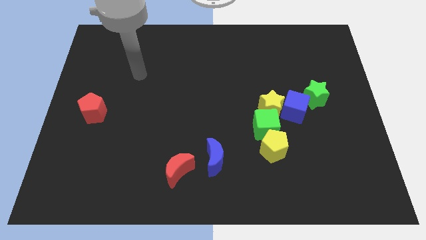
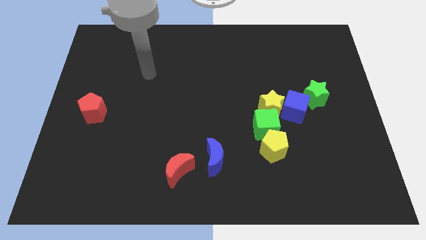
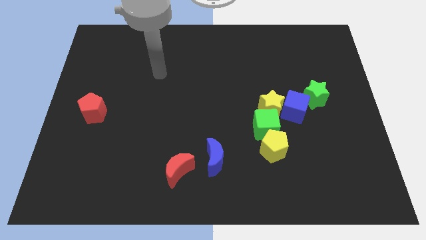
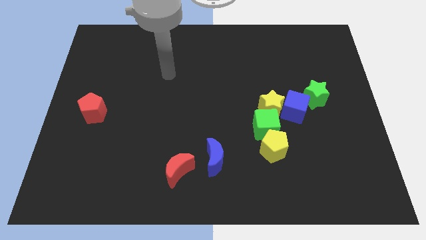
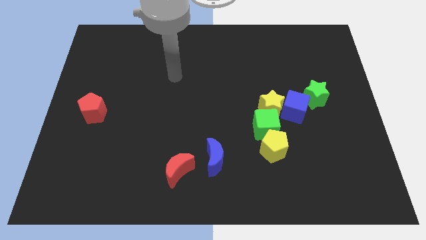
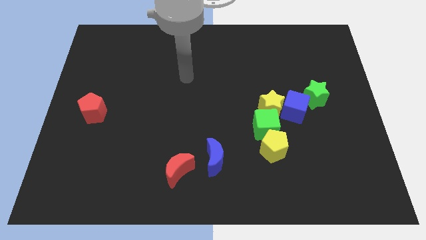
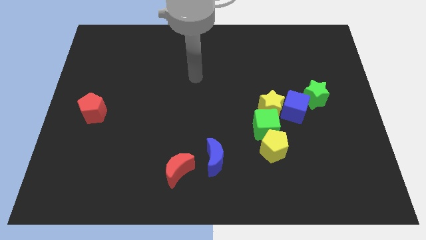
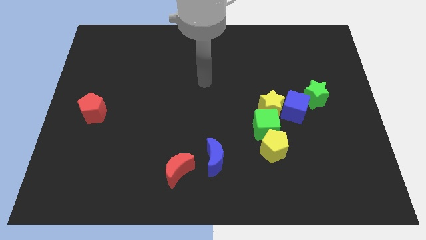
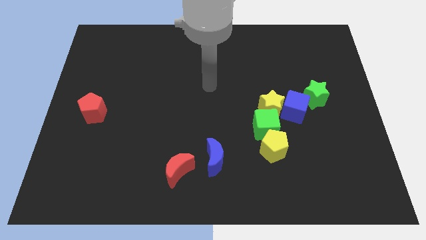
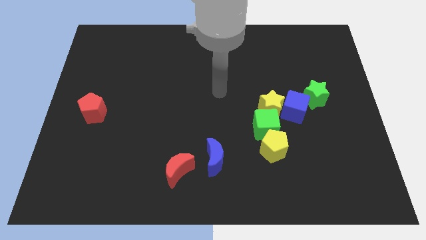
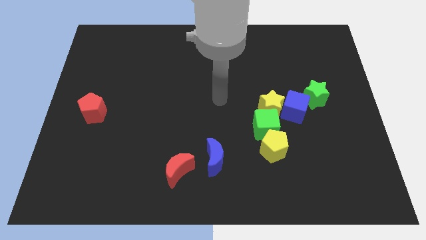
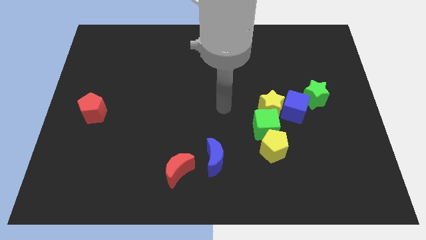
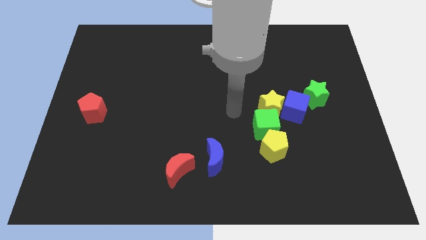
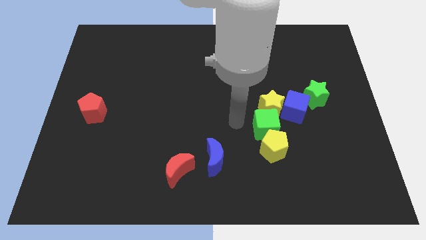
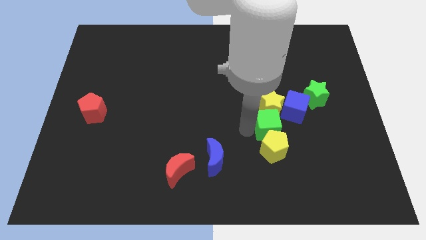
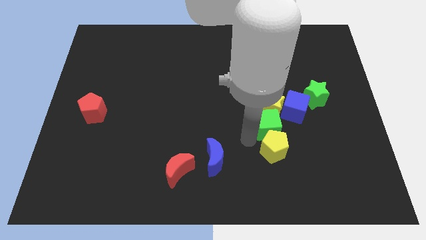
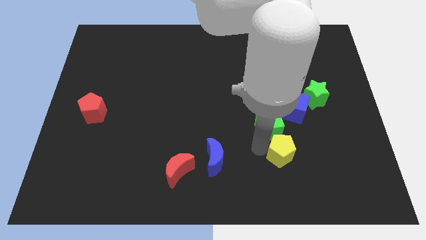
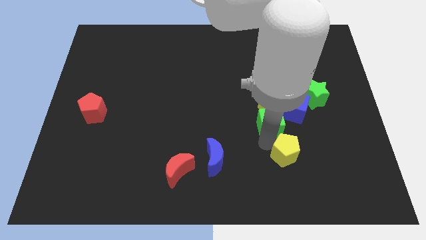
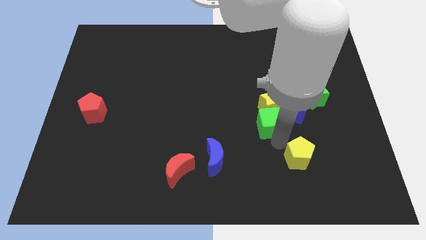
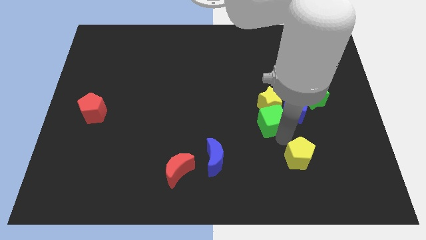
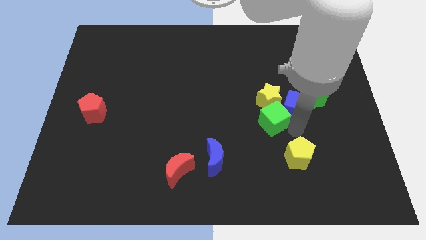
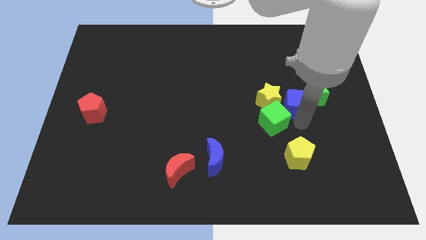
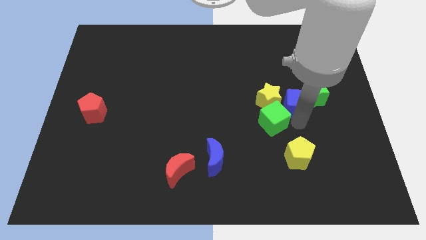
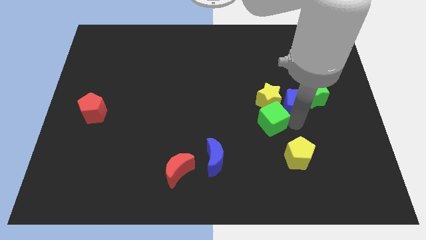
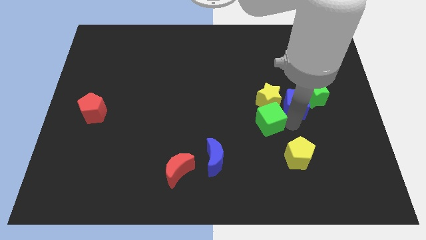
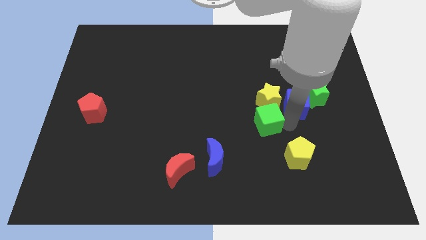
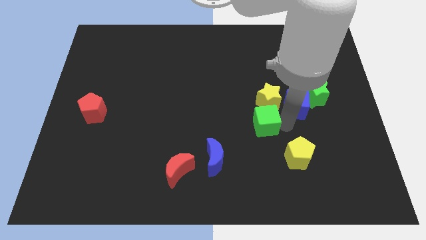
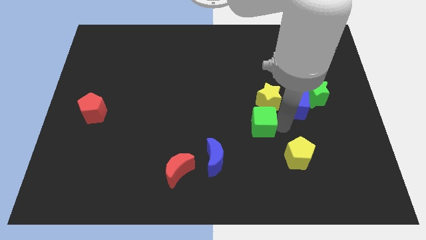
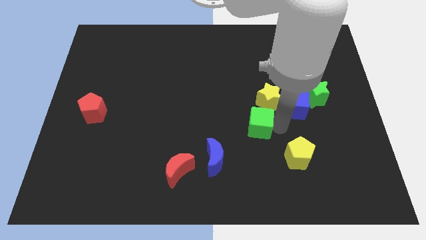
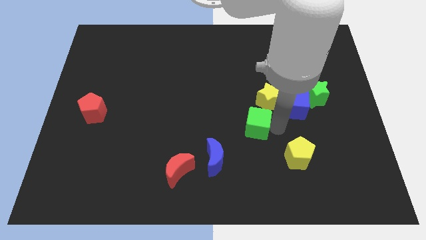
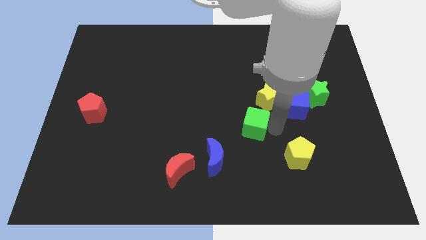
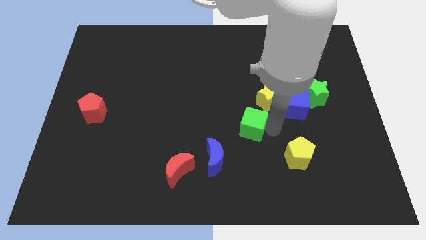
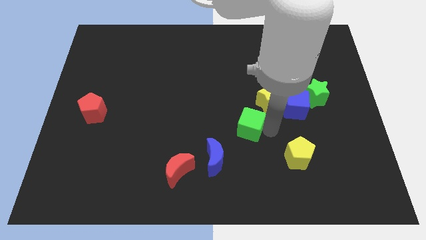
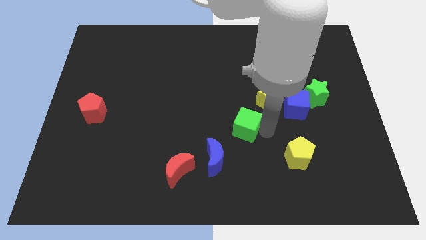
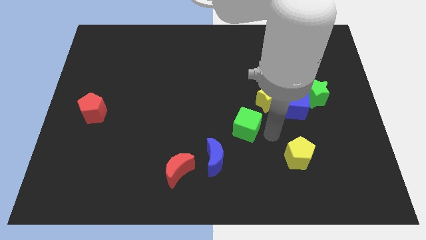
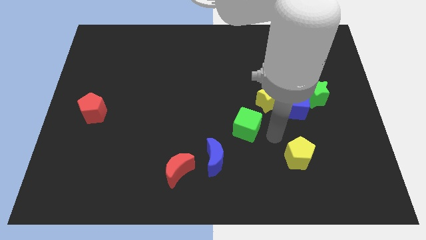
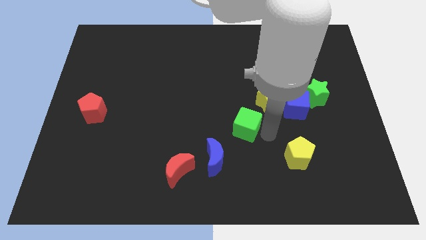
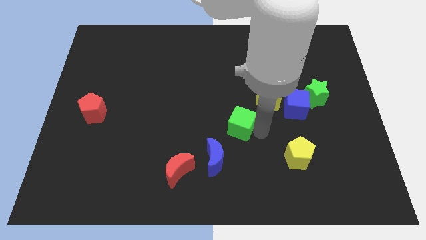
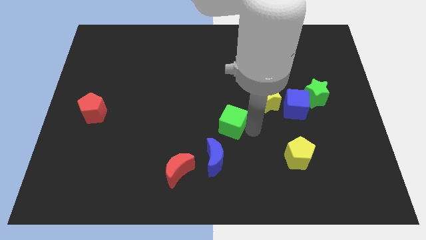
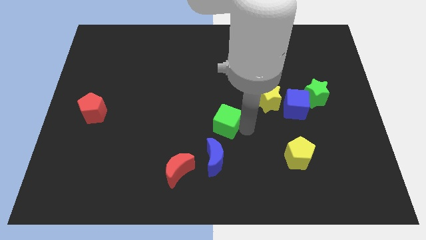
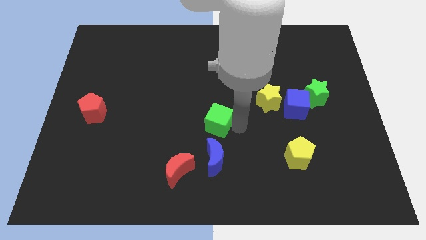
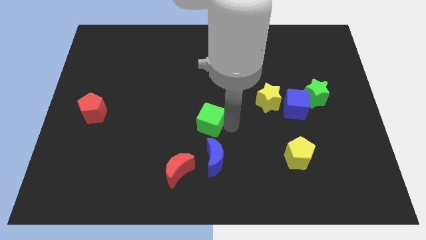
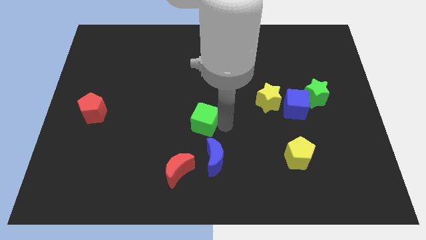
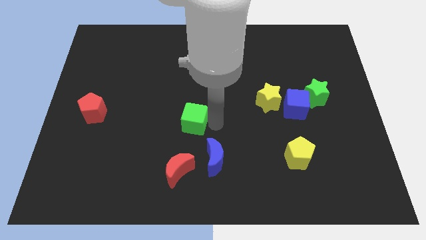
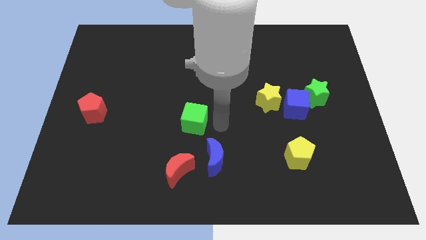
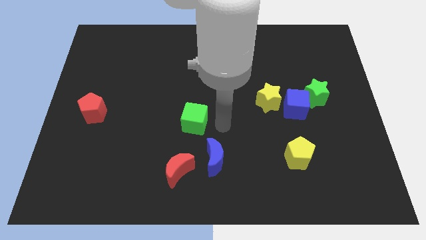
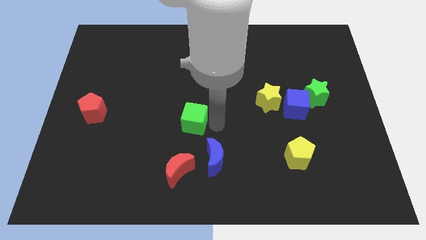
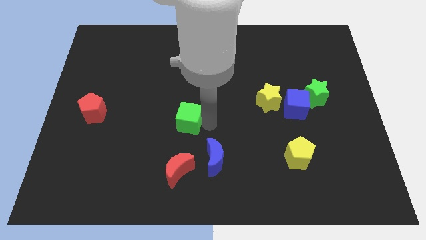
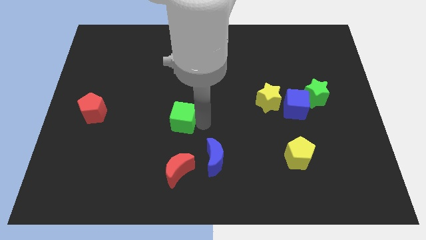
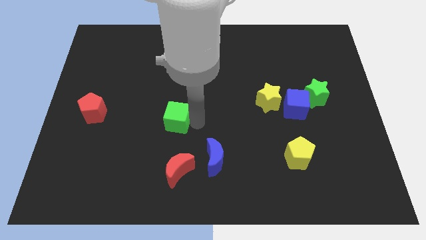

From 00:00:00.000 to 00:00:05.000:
slide the green cube to the left

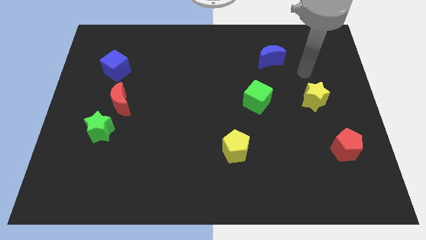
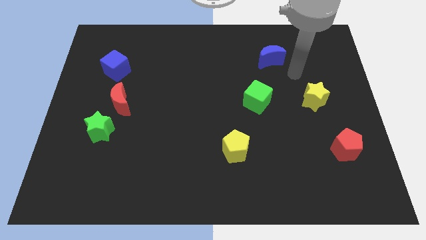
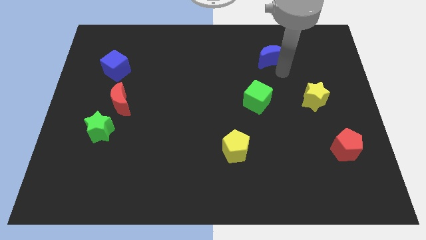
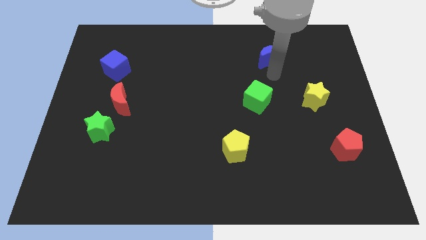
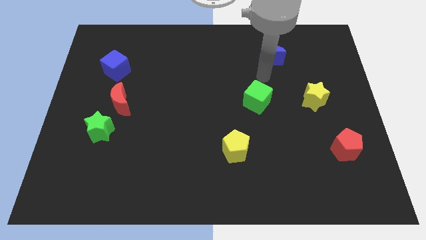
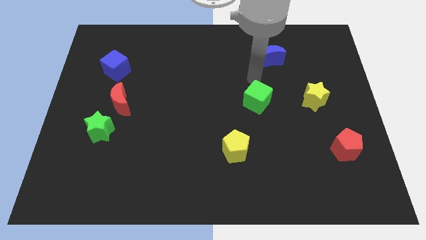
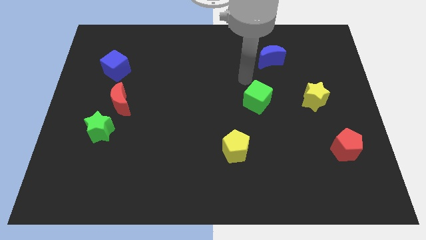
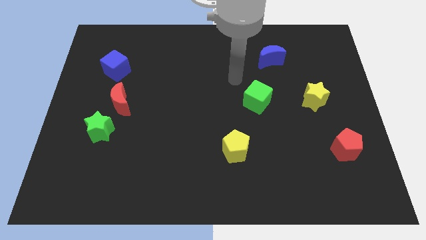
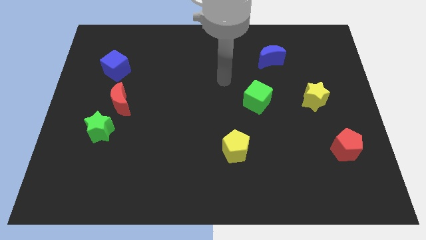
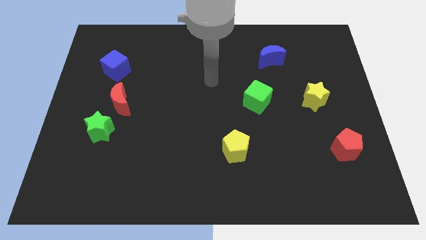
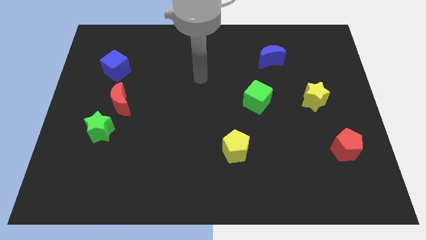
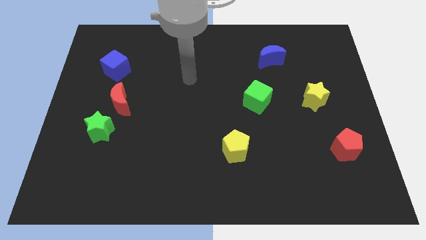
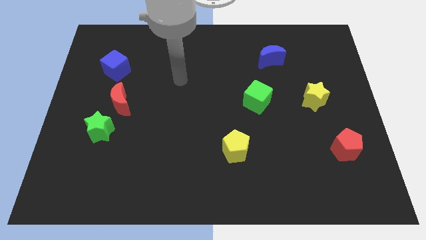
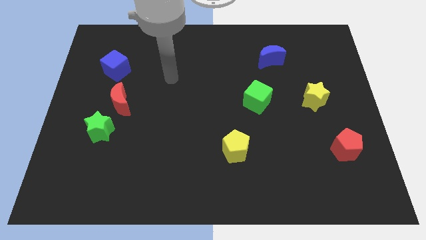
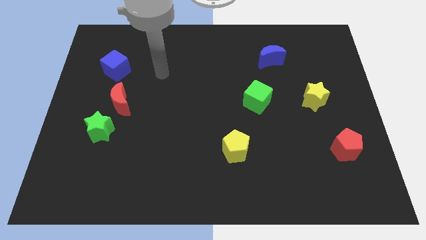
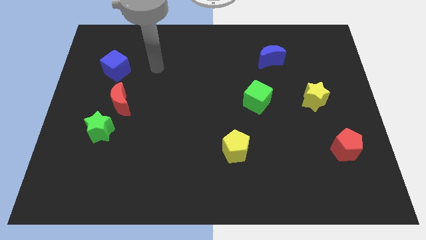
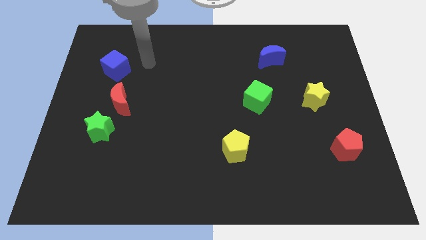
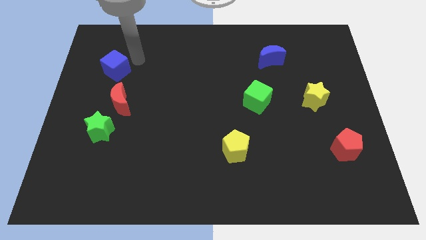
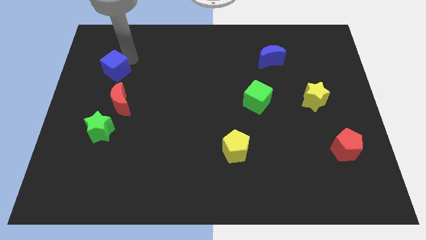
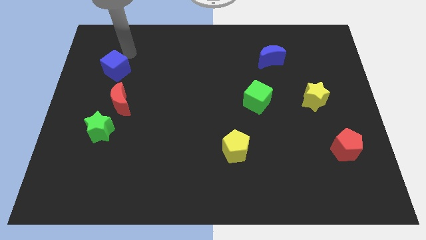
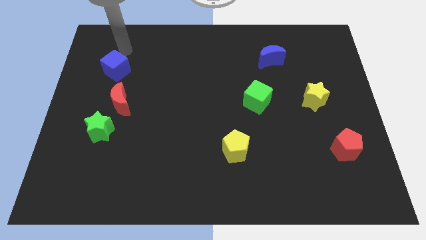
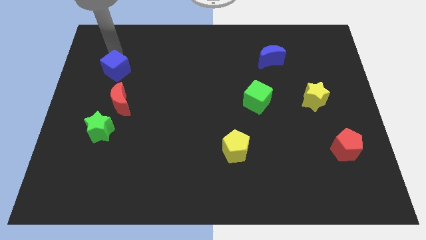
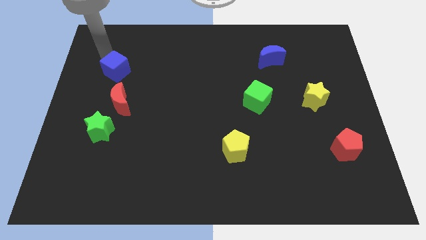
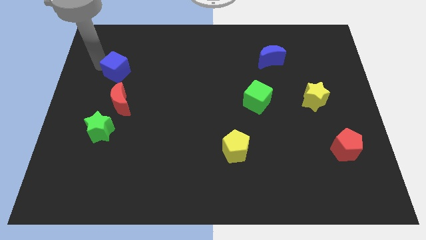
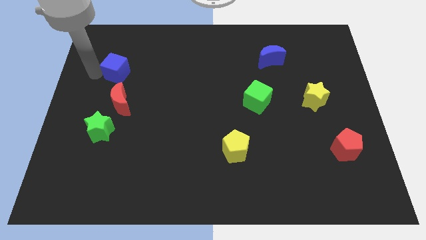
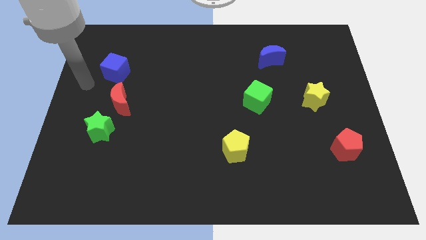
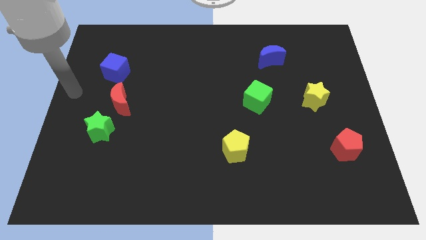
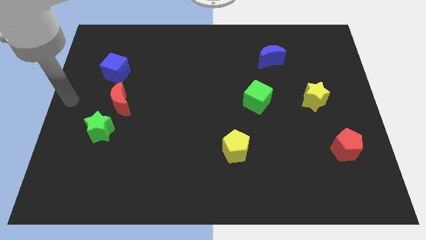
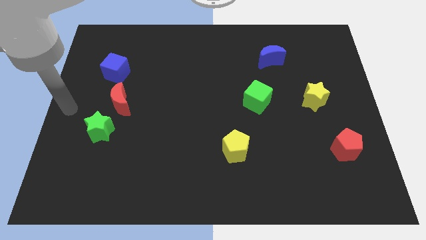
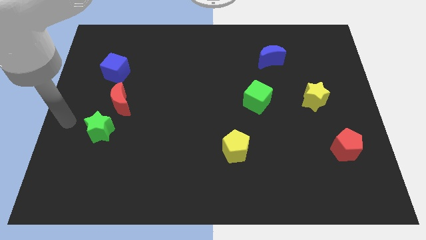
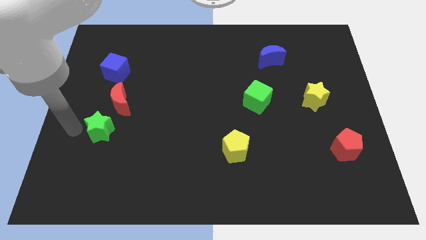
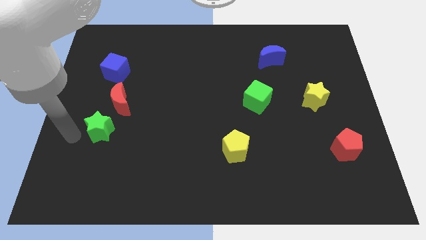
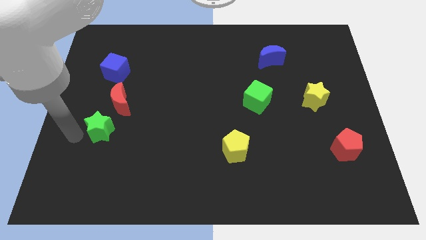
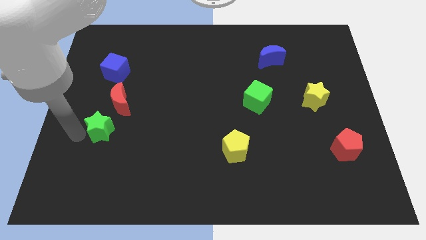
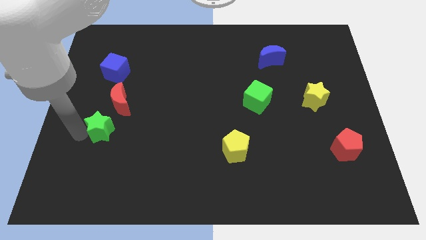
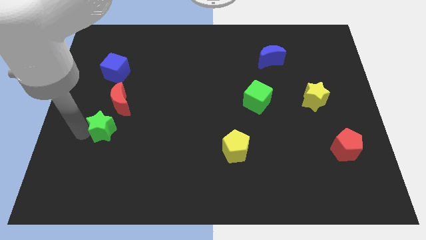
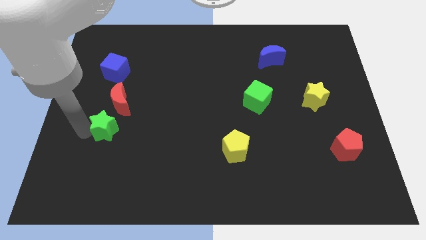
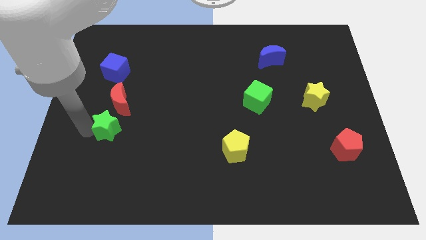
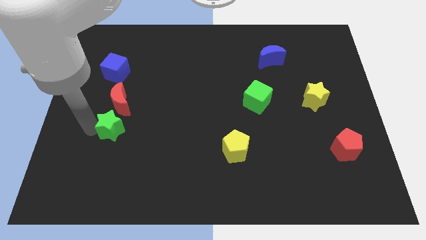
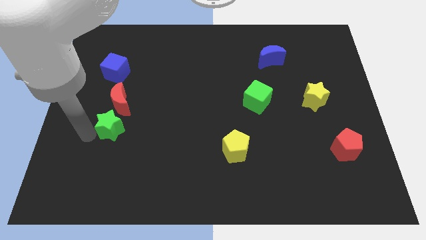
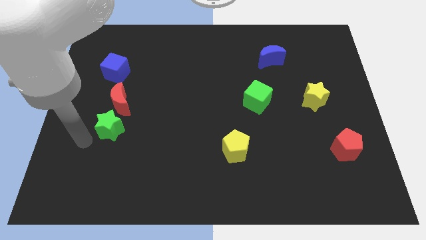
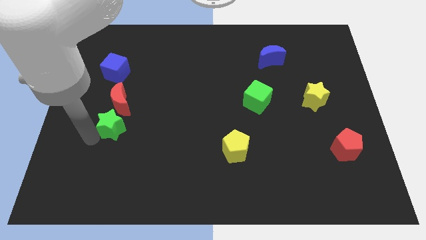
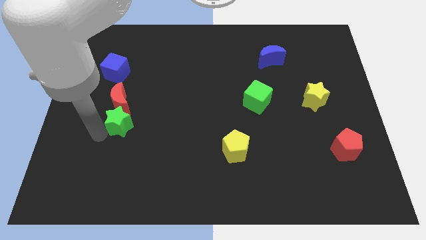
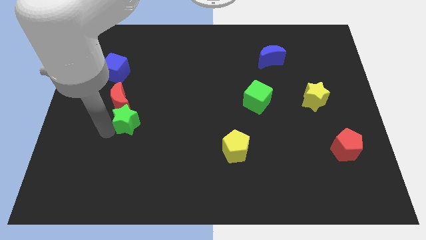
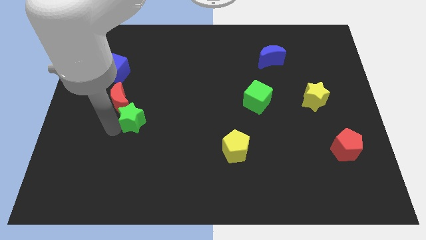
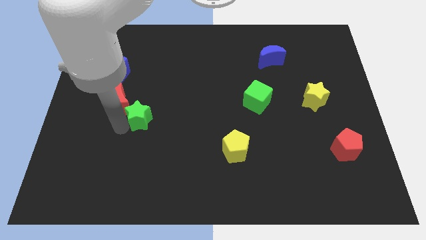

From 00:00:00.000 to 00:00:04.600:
push the green star diagonally up and right slightly
